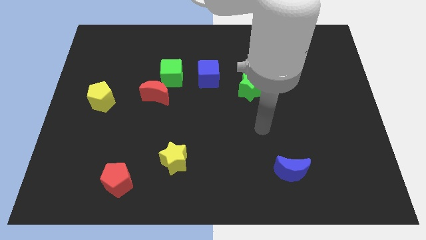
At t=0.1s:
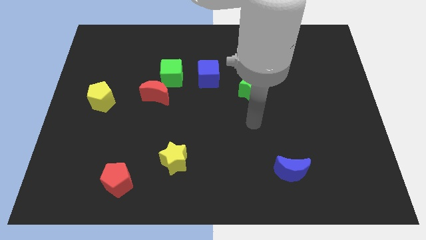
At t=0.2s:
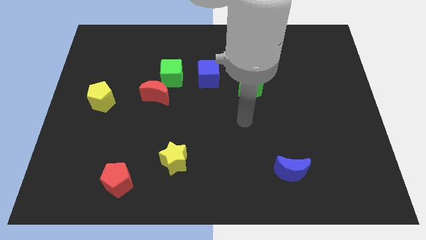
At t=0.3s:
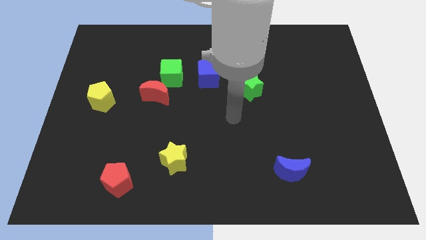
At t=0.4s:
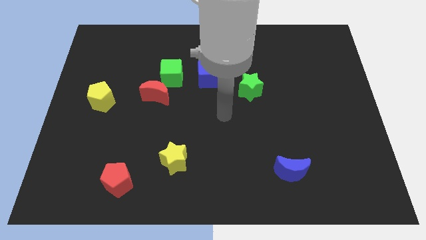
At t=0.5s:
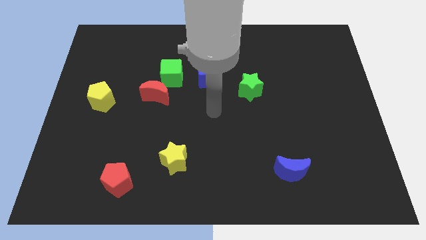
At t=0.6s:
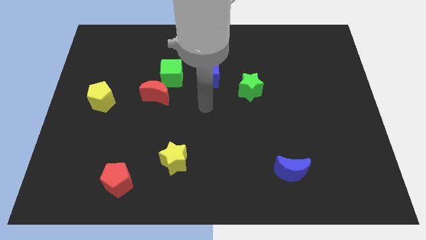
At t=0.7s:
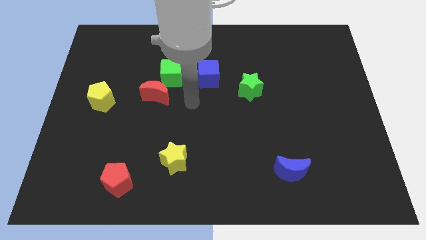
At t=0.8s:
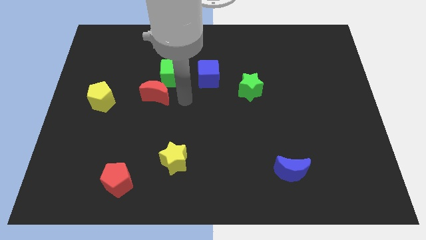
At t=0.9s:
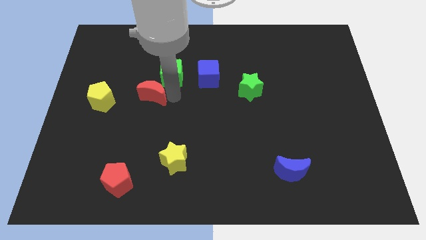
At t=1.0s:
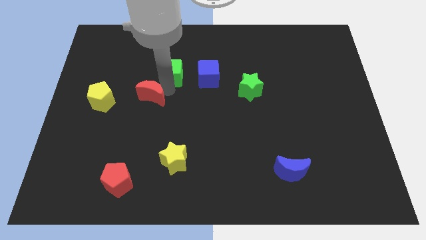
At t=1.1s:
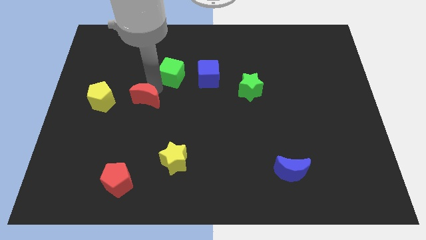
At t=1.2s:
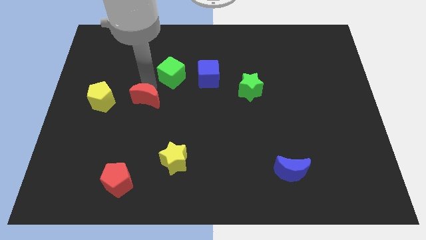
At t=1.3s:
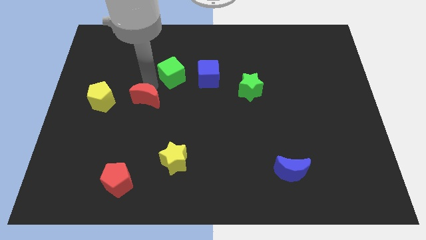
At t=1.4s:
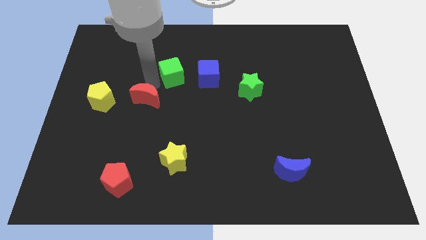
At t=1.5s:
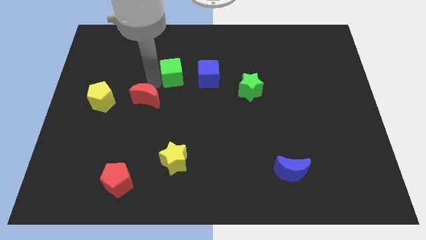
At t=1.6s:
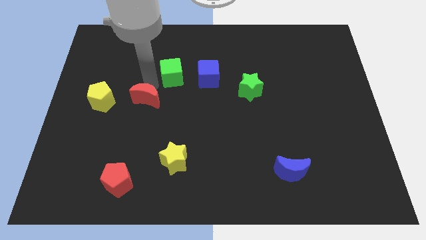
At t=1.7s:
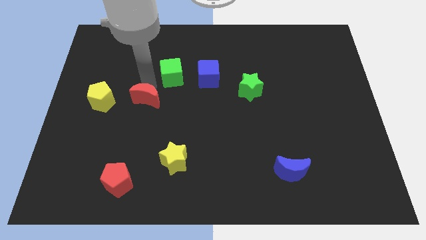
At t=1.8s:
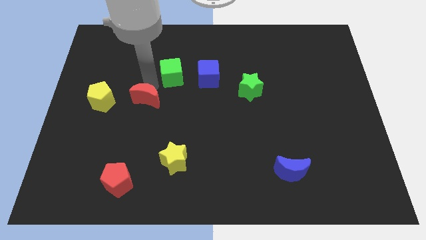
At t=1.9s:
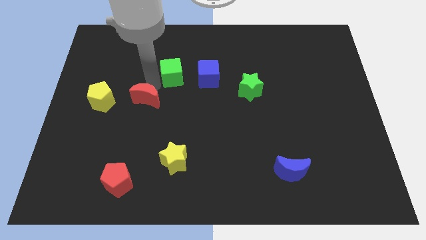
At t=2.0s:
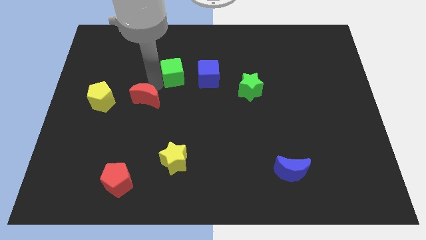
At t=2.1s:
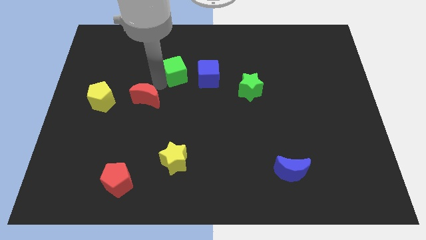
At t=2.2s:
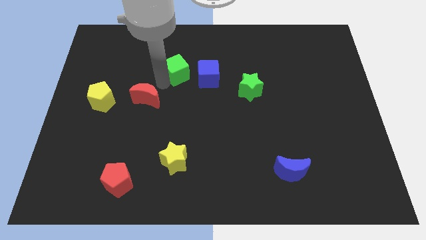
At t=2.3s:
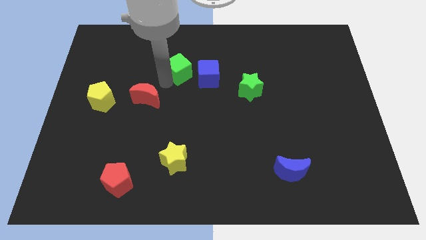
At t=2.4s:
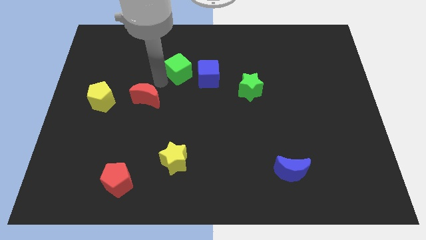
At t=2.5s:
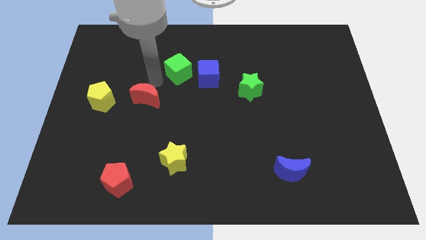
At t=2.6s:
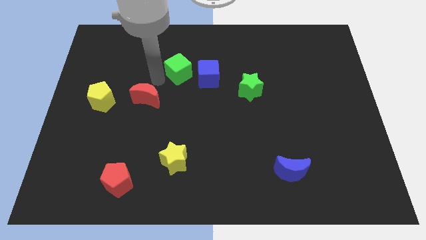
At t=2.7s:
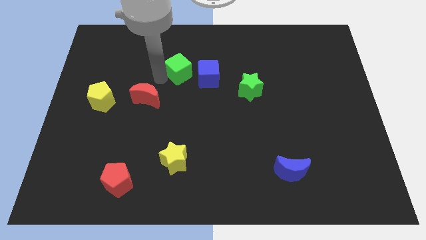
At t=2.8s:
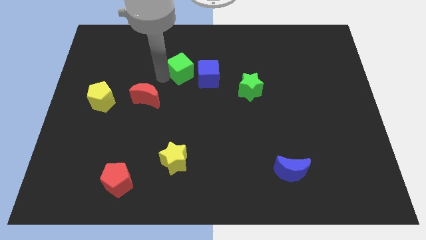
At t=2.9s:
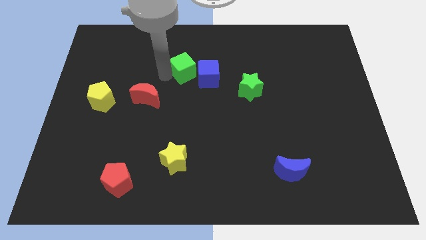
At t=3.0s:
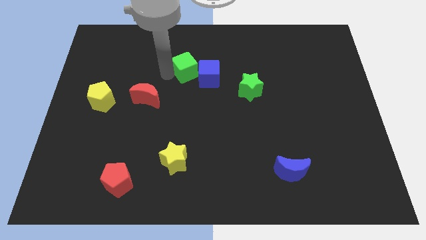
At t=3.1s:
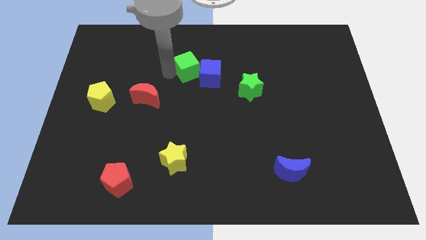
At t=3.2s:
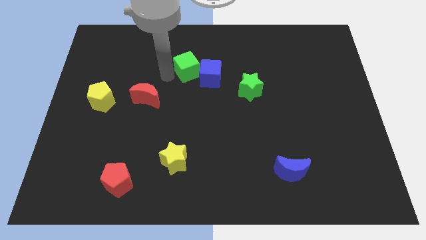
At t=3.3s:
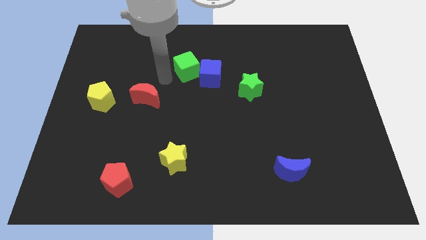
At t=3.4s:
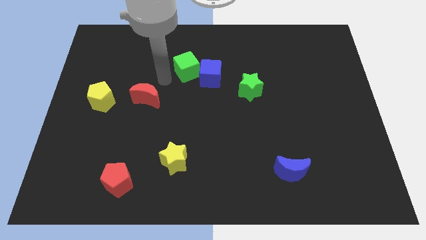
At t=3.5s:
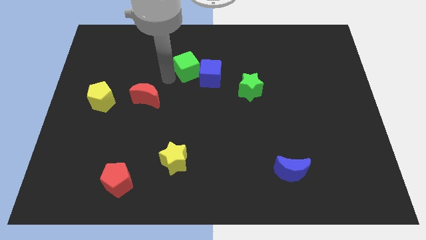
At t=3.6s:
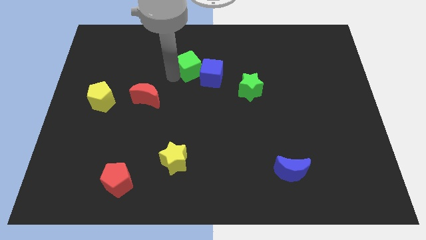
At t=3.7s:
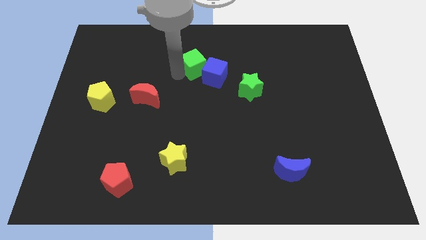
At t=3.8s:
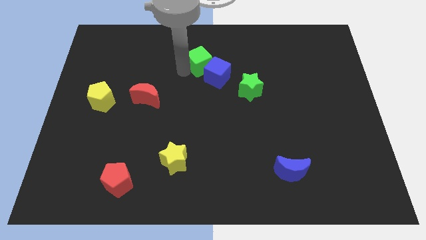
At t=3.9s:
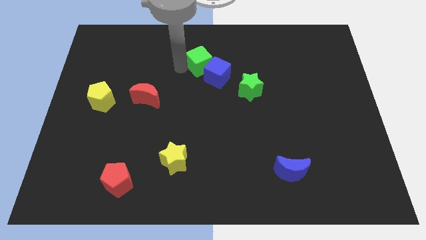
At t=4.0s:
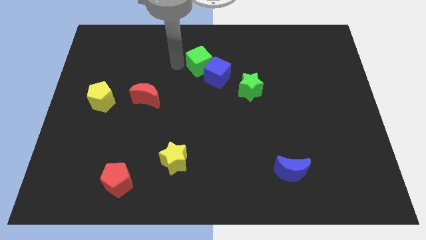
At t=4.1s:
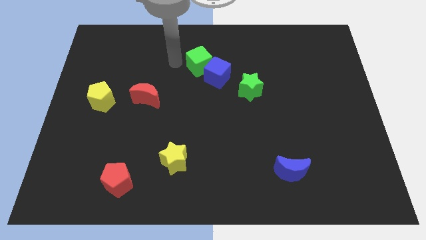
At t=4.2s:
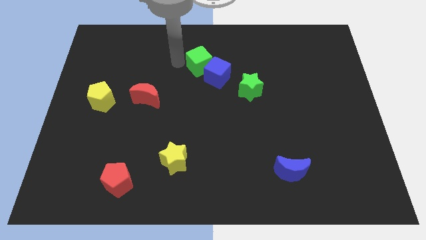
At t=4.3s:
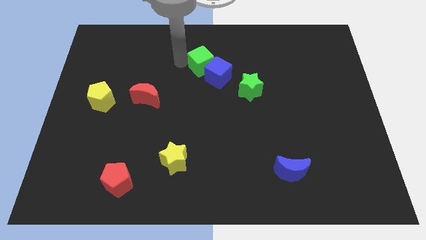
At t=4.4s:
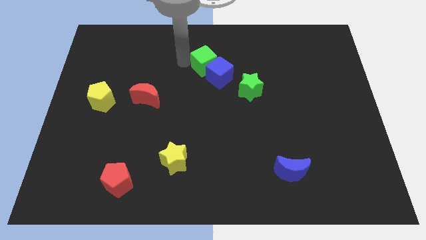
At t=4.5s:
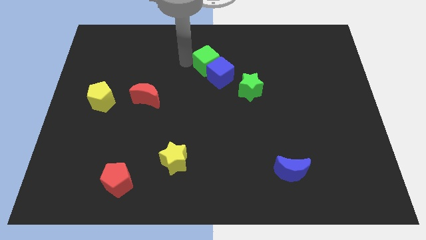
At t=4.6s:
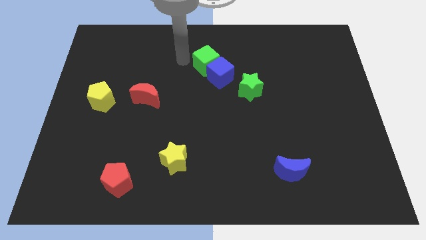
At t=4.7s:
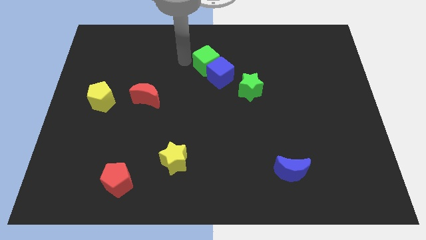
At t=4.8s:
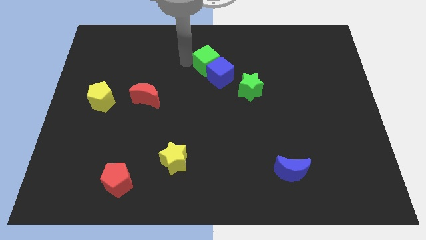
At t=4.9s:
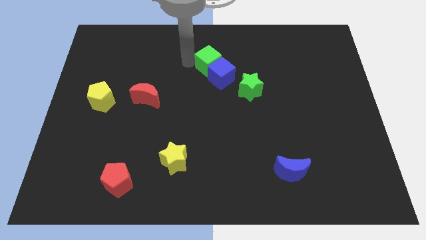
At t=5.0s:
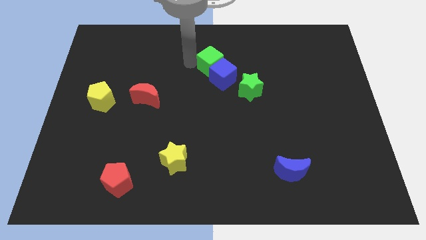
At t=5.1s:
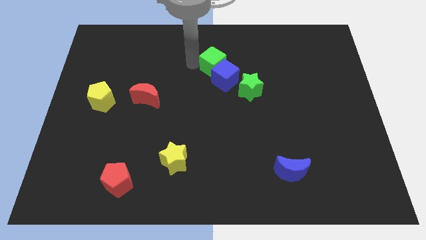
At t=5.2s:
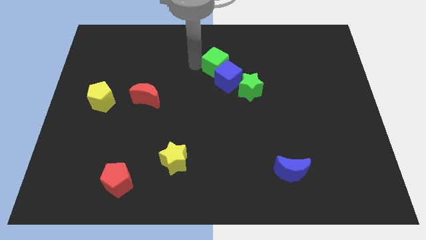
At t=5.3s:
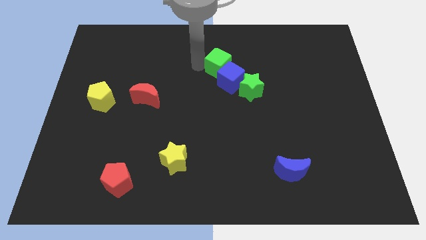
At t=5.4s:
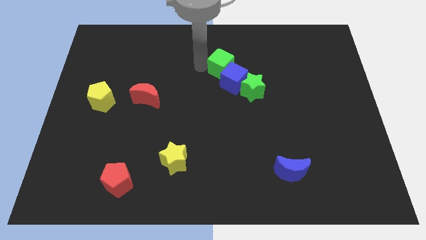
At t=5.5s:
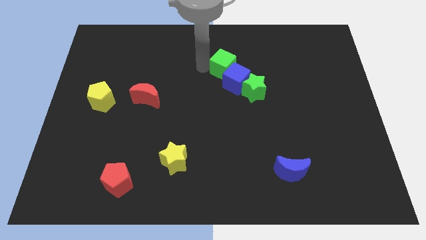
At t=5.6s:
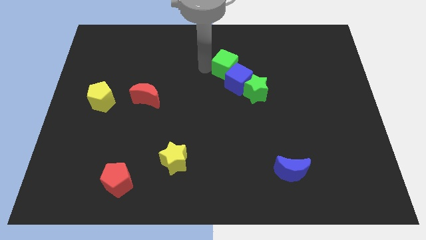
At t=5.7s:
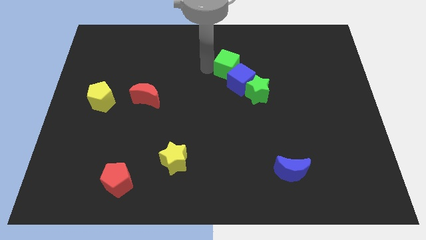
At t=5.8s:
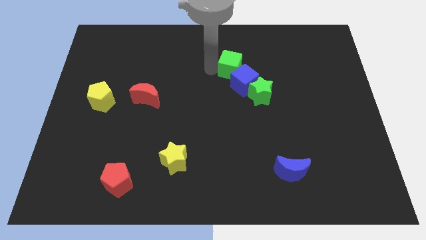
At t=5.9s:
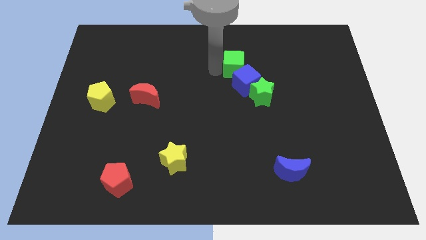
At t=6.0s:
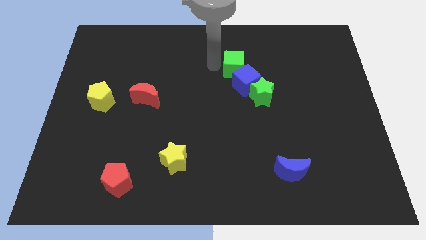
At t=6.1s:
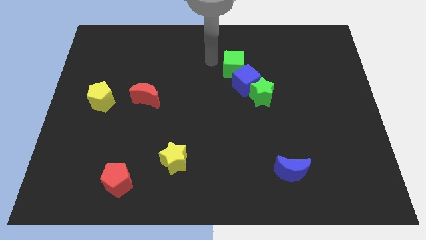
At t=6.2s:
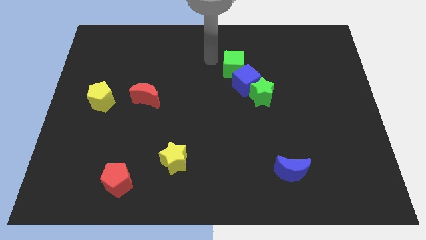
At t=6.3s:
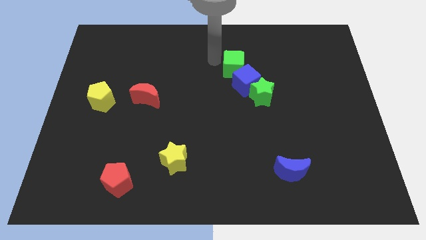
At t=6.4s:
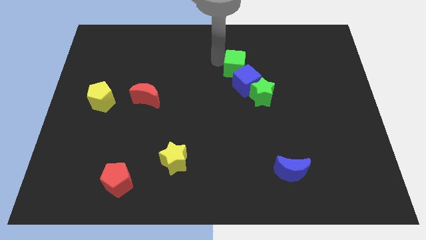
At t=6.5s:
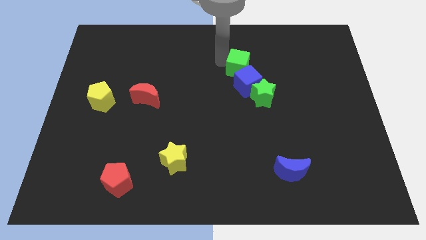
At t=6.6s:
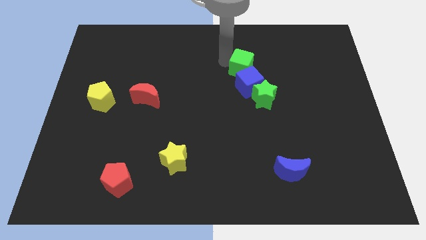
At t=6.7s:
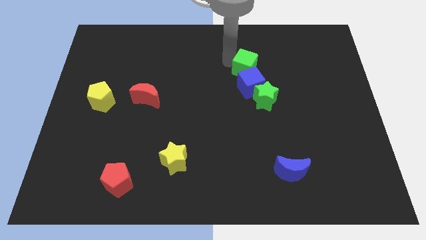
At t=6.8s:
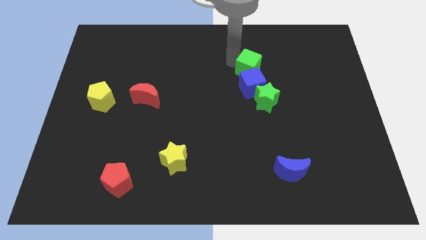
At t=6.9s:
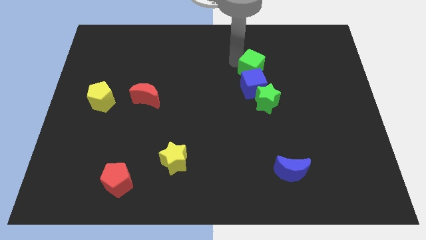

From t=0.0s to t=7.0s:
slide the green cube to the right

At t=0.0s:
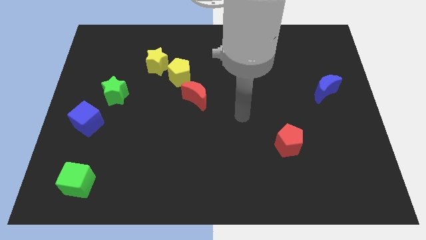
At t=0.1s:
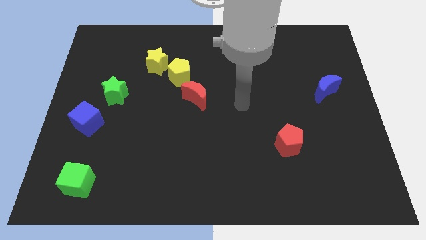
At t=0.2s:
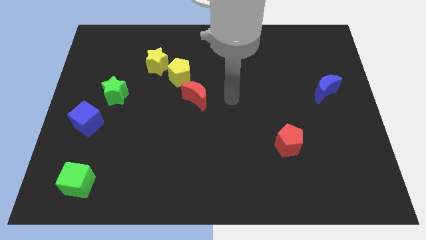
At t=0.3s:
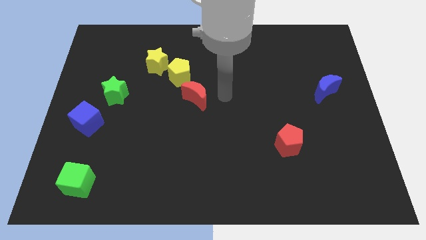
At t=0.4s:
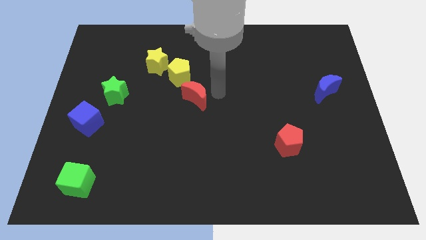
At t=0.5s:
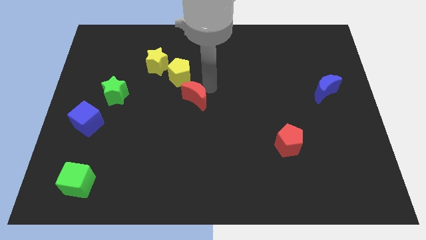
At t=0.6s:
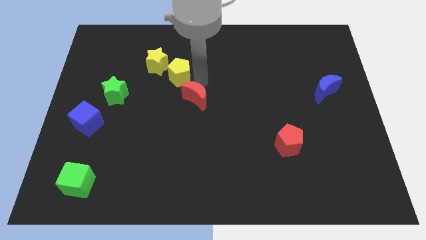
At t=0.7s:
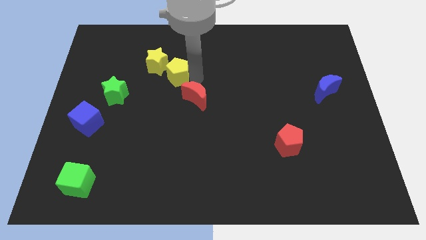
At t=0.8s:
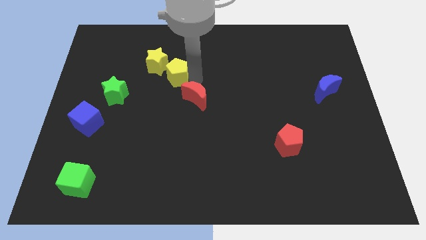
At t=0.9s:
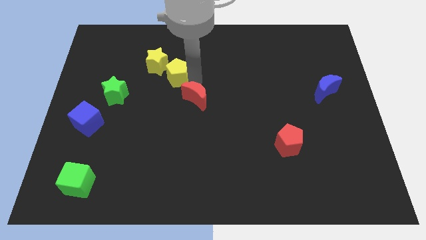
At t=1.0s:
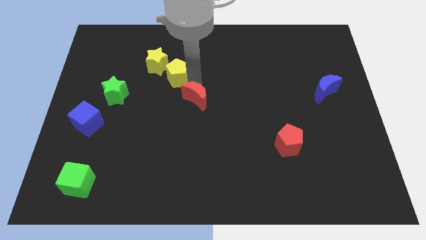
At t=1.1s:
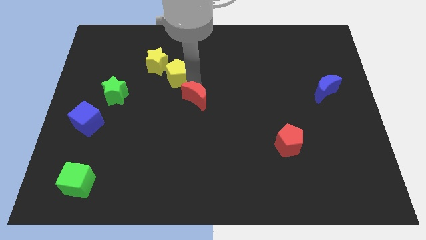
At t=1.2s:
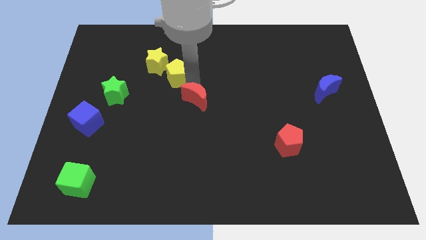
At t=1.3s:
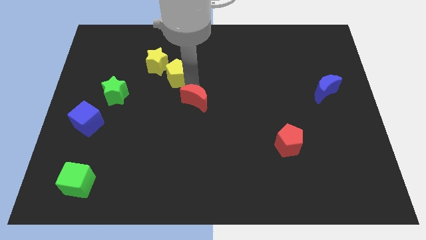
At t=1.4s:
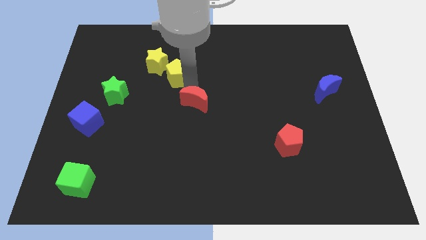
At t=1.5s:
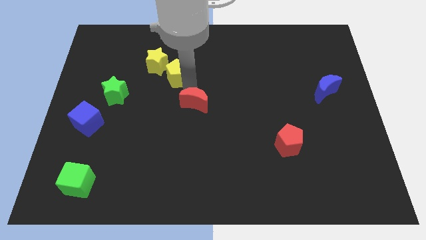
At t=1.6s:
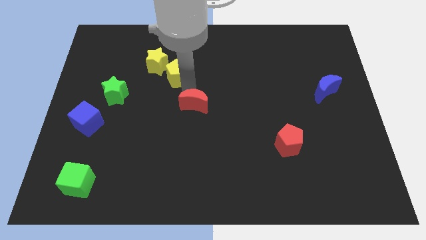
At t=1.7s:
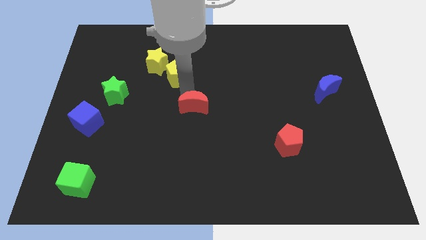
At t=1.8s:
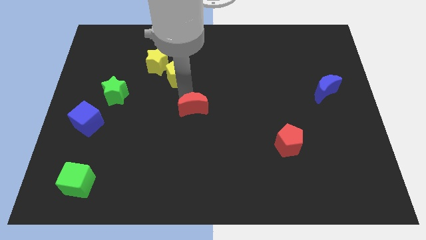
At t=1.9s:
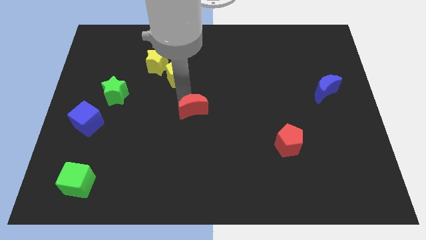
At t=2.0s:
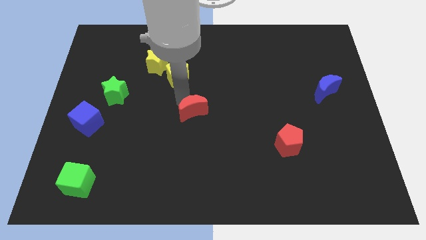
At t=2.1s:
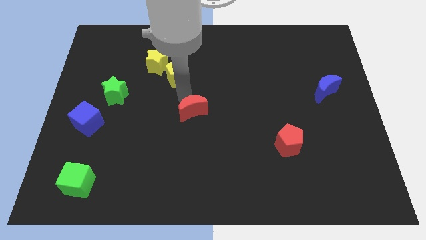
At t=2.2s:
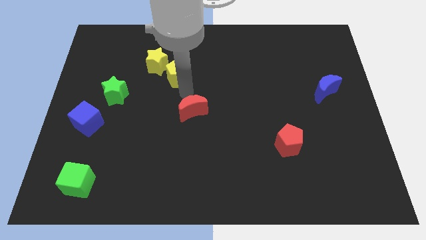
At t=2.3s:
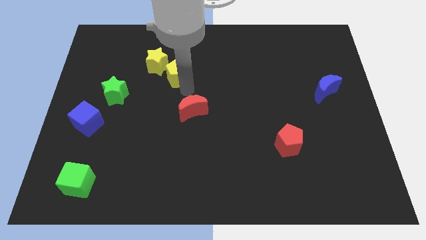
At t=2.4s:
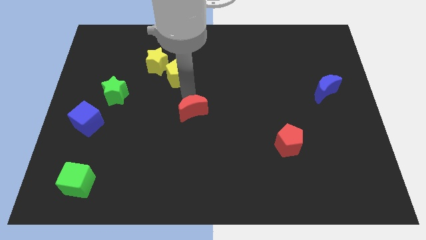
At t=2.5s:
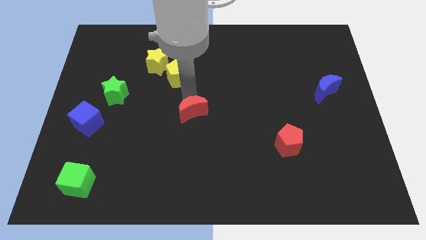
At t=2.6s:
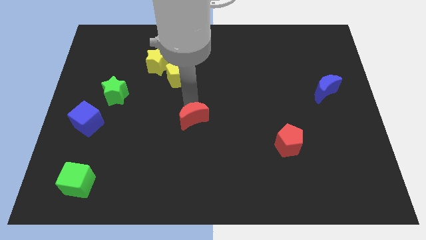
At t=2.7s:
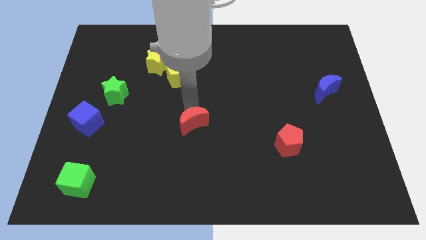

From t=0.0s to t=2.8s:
slide the red moon somewhat down
